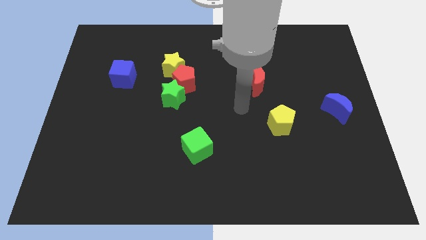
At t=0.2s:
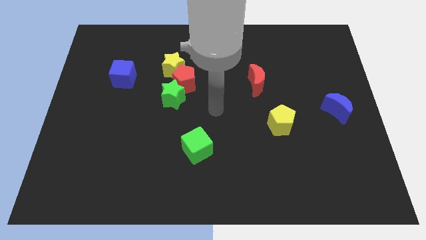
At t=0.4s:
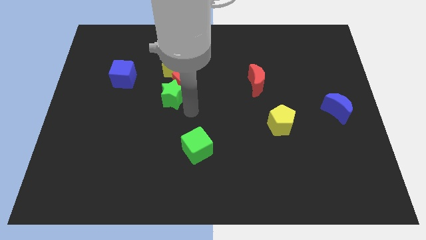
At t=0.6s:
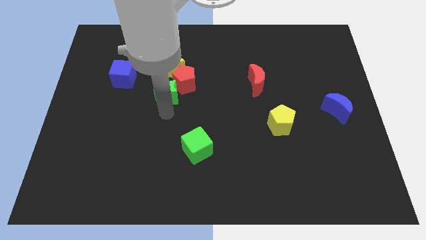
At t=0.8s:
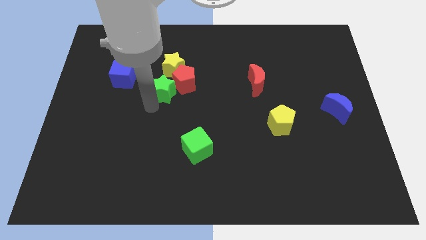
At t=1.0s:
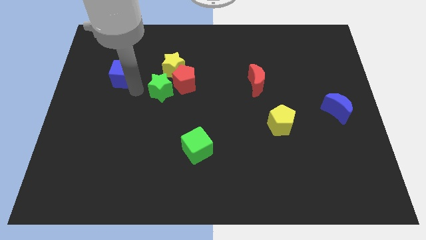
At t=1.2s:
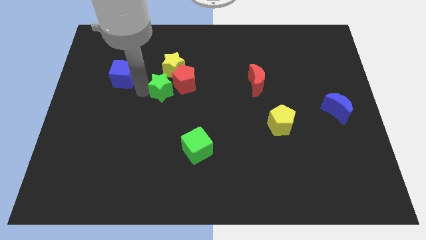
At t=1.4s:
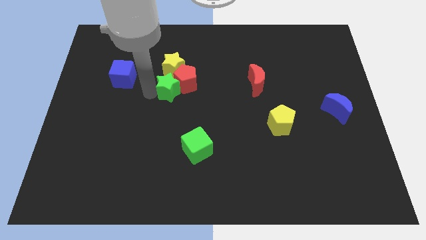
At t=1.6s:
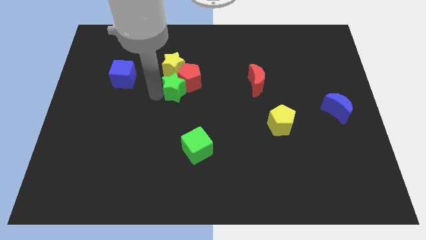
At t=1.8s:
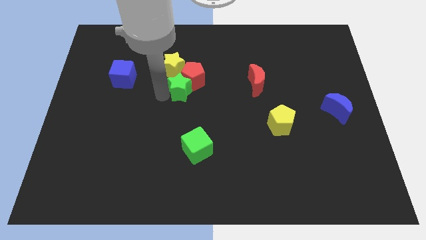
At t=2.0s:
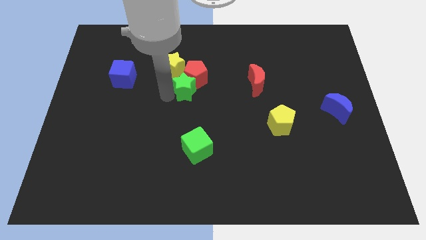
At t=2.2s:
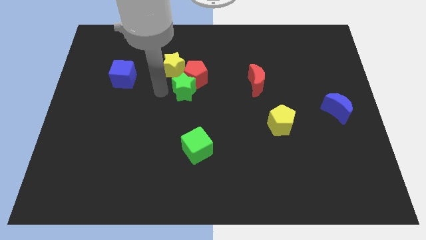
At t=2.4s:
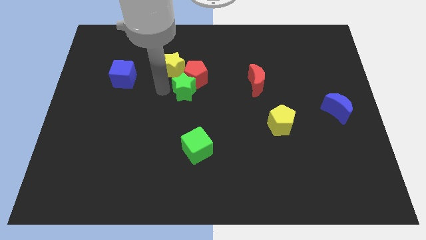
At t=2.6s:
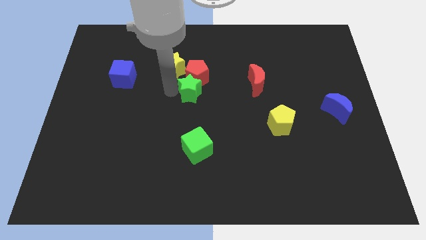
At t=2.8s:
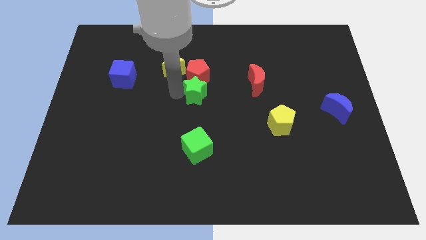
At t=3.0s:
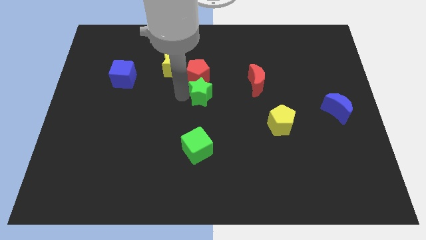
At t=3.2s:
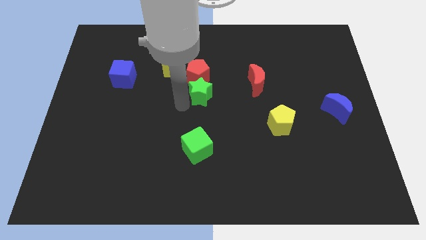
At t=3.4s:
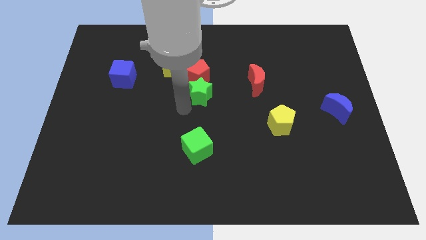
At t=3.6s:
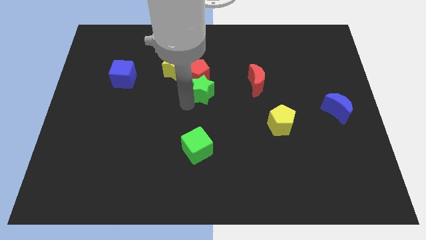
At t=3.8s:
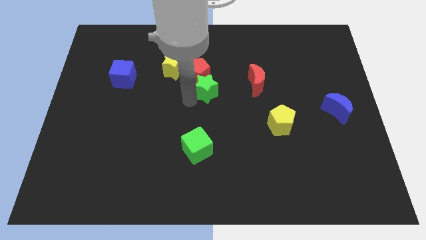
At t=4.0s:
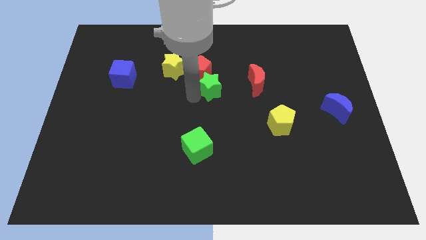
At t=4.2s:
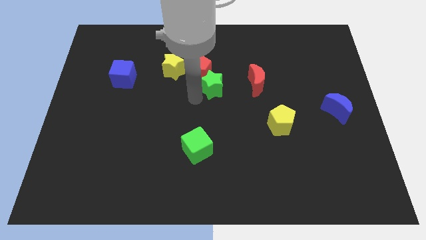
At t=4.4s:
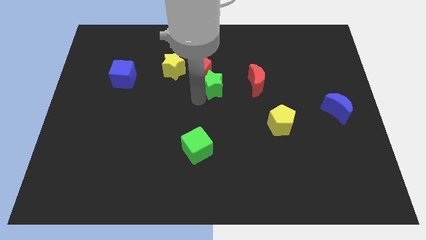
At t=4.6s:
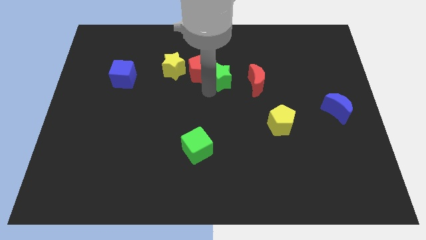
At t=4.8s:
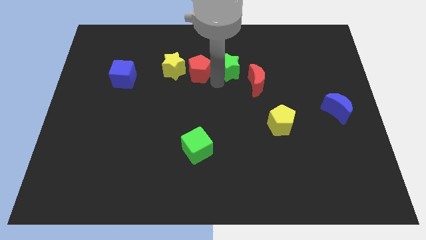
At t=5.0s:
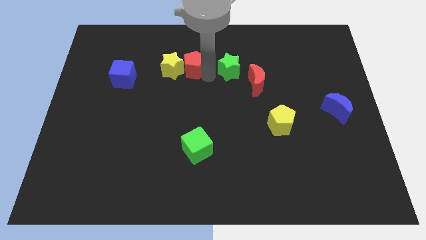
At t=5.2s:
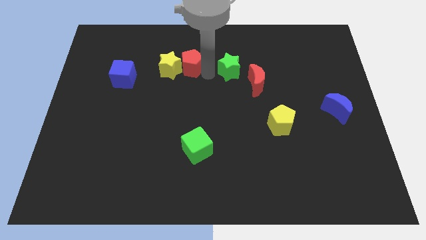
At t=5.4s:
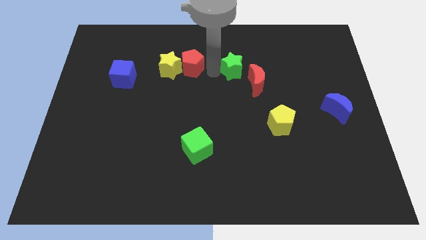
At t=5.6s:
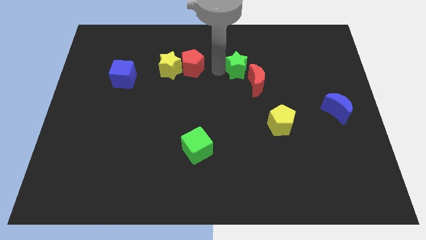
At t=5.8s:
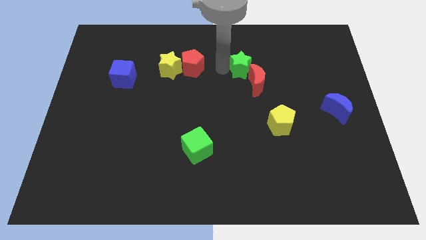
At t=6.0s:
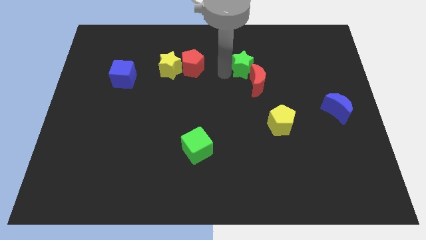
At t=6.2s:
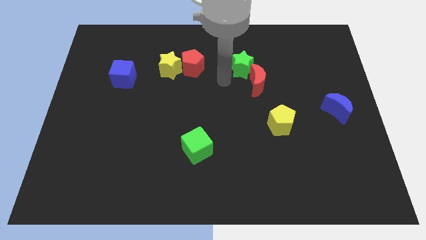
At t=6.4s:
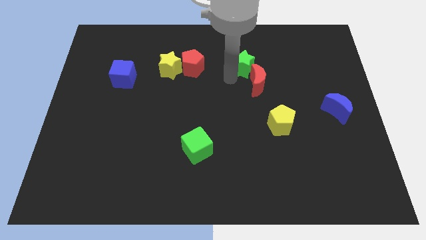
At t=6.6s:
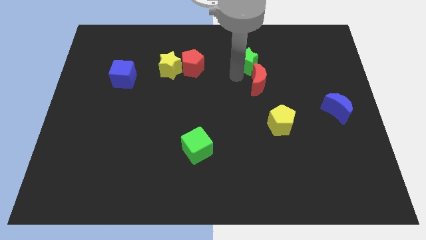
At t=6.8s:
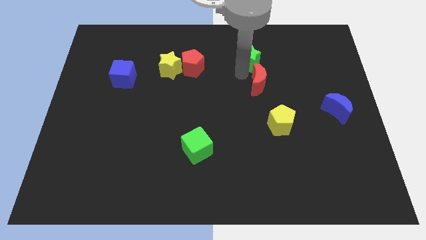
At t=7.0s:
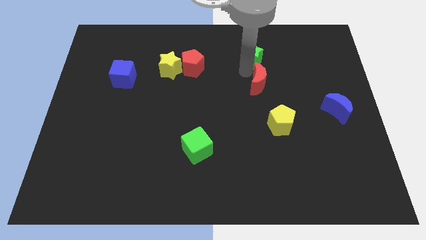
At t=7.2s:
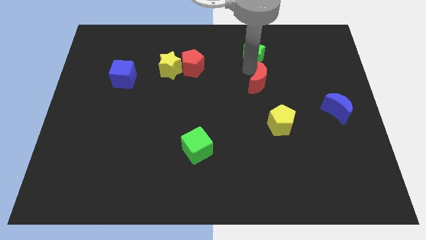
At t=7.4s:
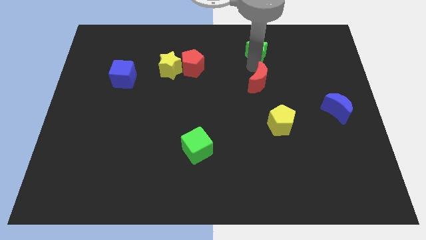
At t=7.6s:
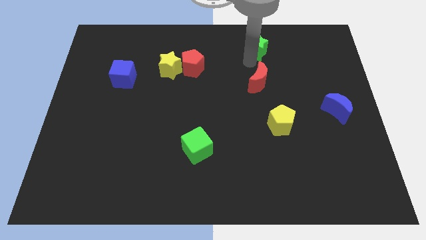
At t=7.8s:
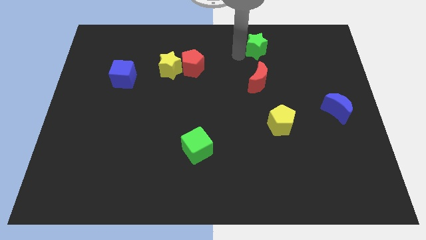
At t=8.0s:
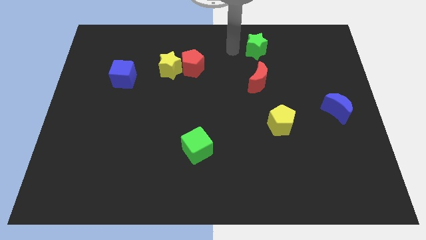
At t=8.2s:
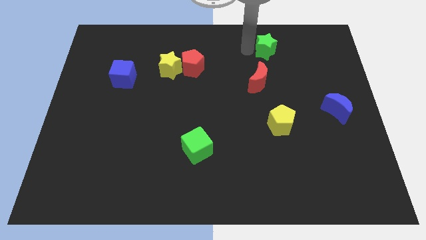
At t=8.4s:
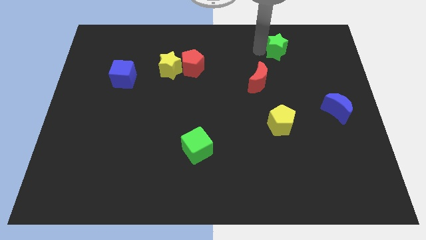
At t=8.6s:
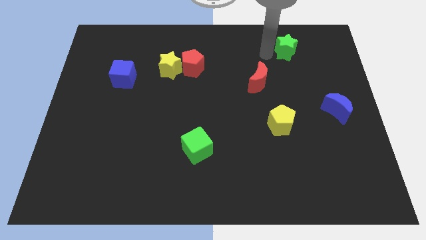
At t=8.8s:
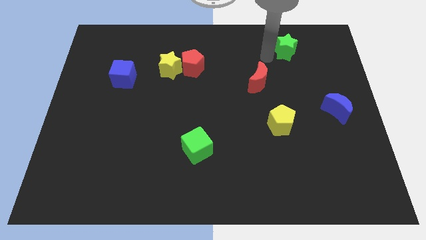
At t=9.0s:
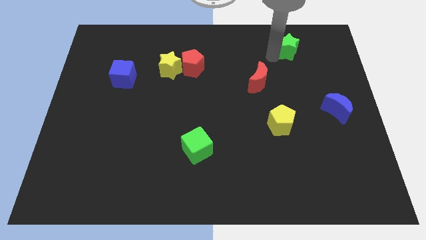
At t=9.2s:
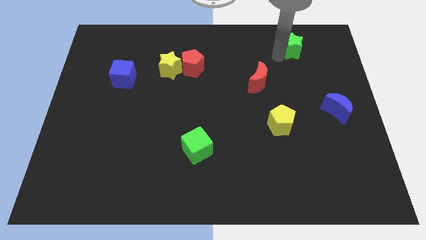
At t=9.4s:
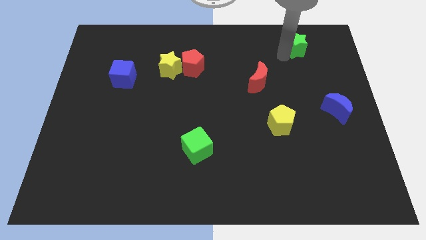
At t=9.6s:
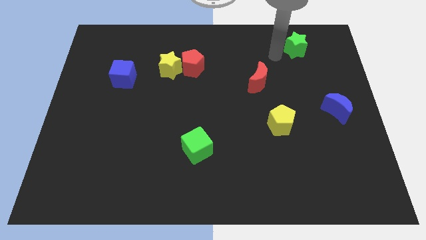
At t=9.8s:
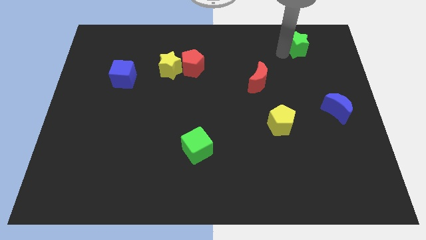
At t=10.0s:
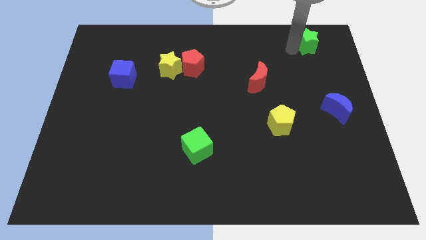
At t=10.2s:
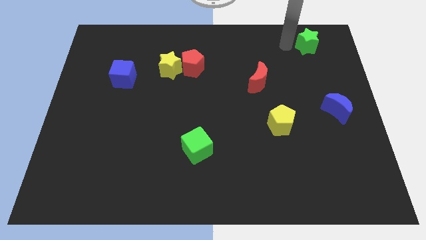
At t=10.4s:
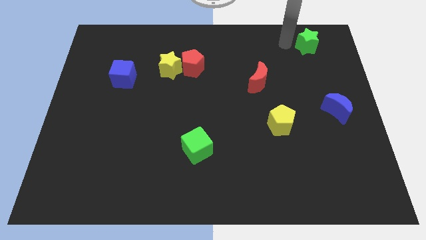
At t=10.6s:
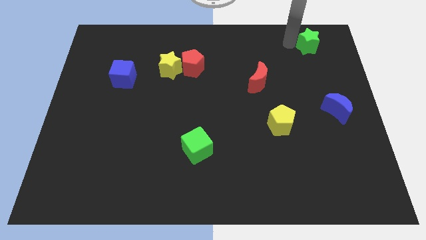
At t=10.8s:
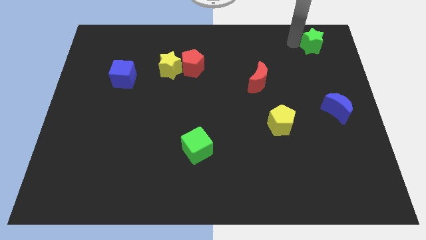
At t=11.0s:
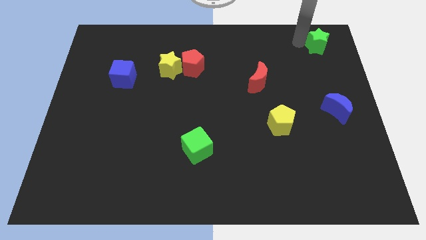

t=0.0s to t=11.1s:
push the green star to the top right corner

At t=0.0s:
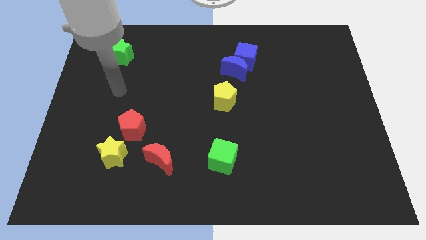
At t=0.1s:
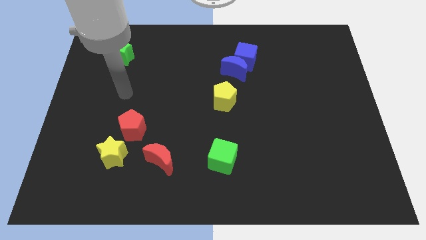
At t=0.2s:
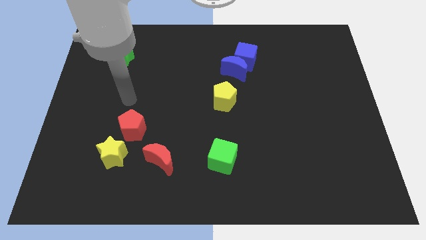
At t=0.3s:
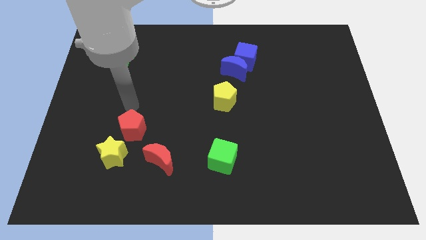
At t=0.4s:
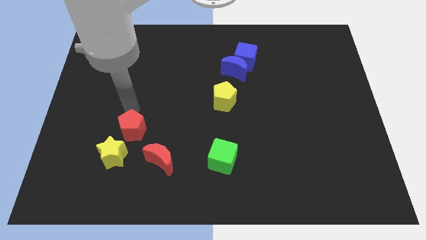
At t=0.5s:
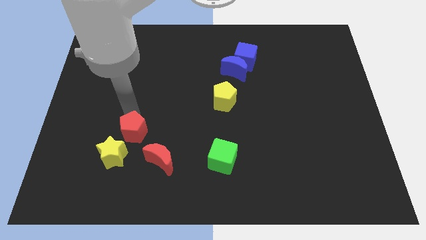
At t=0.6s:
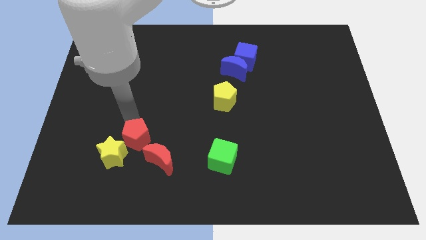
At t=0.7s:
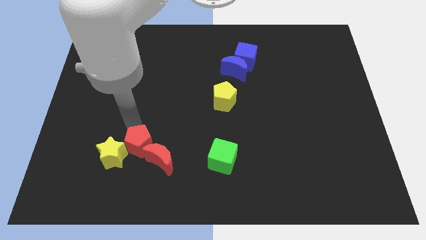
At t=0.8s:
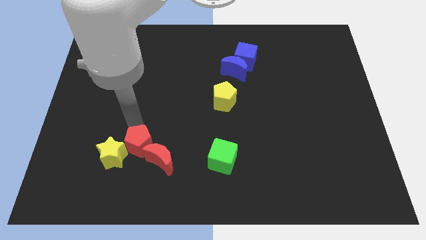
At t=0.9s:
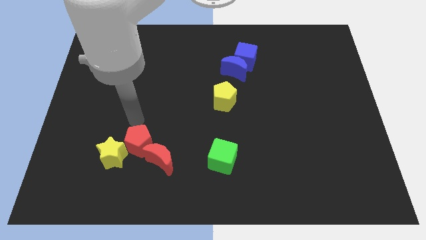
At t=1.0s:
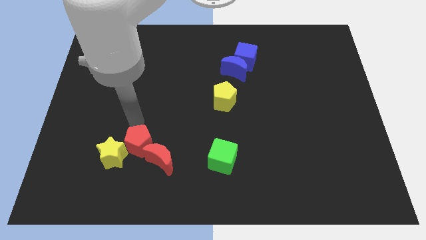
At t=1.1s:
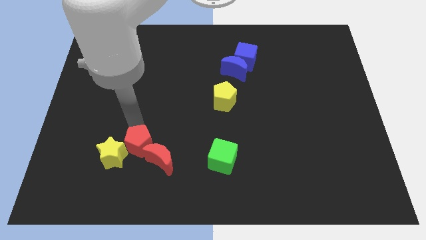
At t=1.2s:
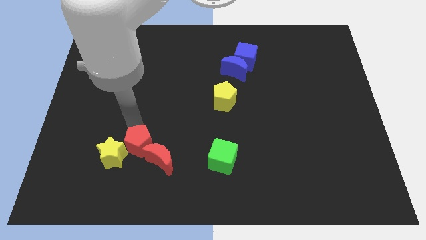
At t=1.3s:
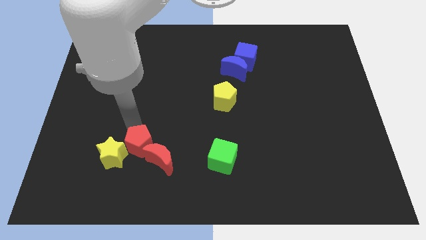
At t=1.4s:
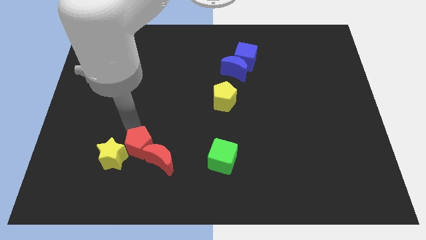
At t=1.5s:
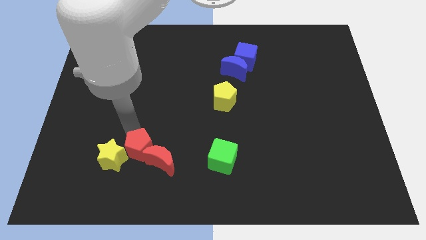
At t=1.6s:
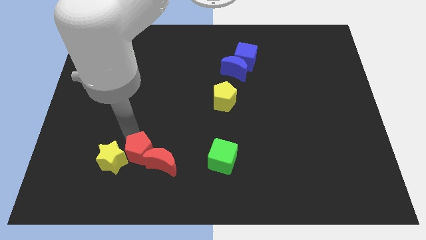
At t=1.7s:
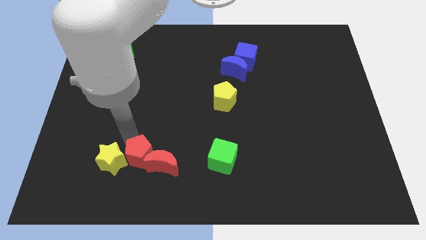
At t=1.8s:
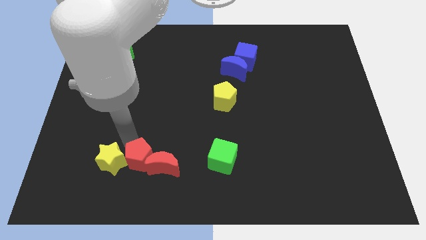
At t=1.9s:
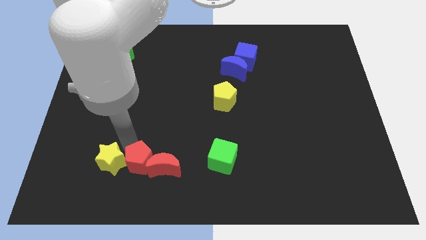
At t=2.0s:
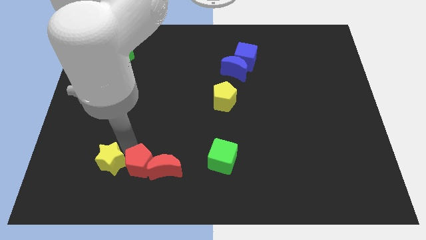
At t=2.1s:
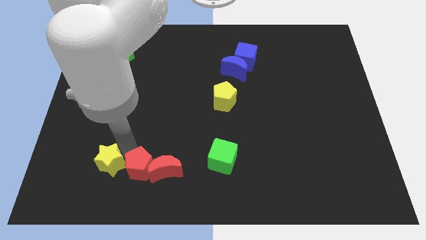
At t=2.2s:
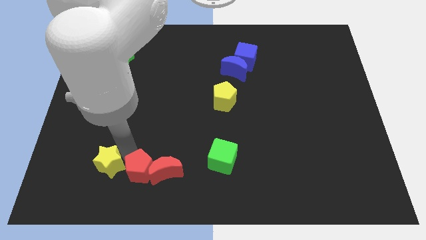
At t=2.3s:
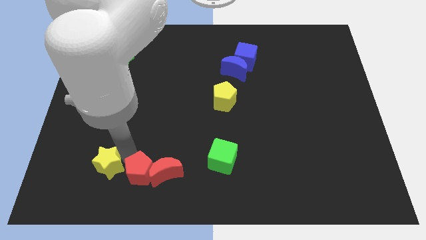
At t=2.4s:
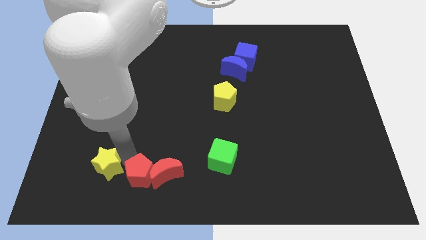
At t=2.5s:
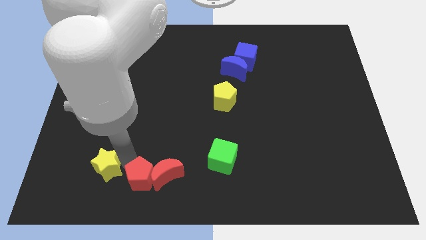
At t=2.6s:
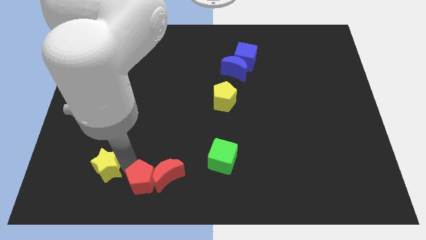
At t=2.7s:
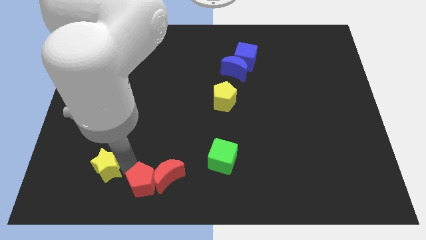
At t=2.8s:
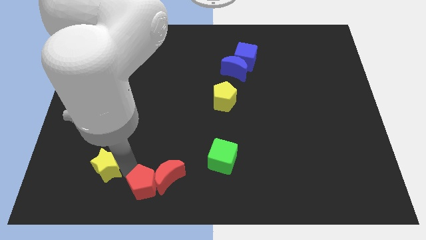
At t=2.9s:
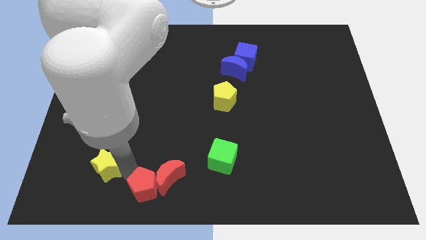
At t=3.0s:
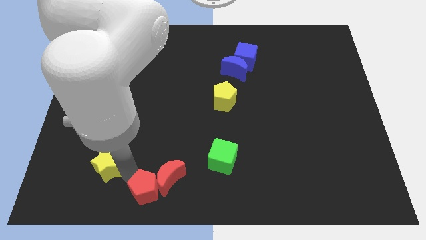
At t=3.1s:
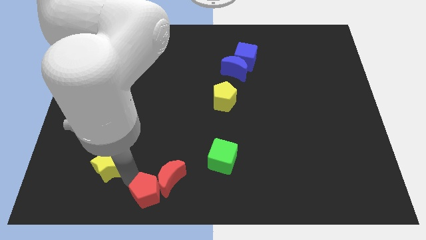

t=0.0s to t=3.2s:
slide the red pentagon to the bottom side
